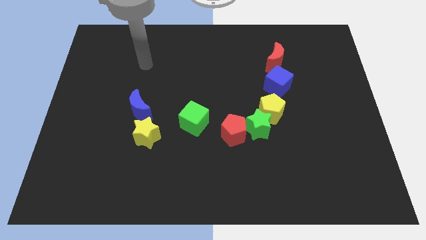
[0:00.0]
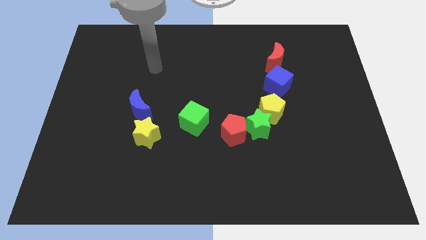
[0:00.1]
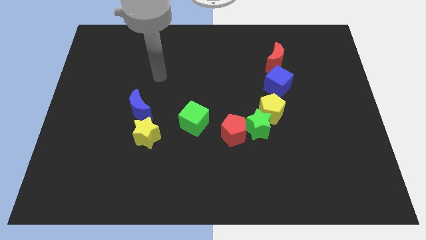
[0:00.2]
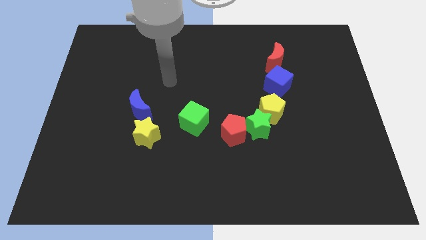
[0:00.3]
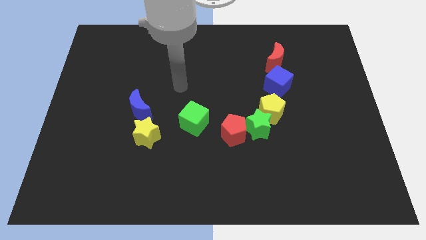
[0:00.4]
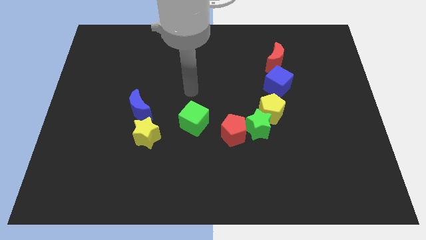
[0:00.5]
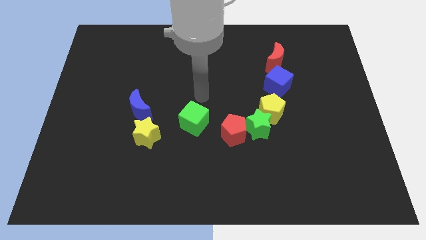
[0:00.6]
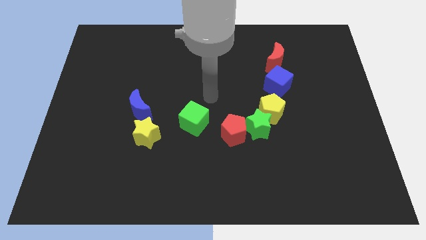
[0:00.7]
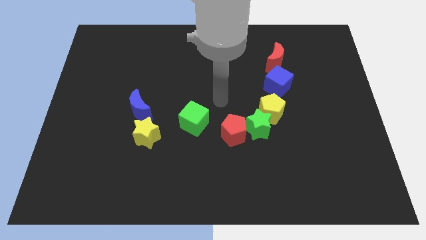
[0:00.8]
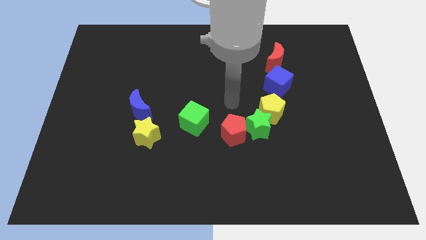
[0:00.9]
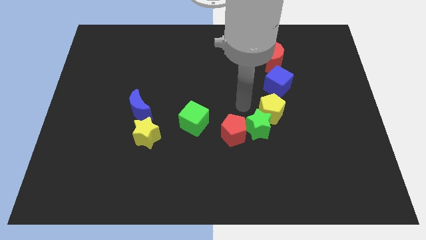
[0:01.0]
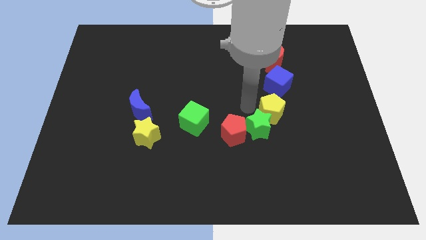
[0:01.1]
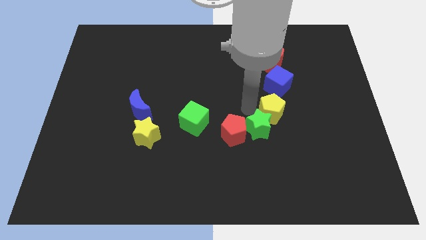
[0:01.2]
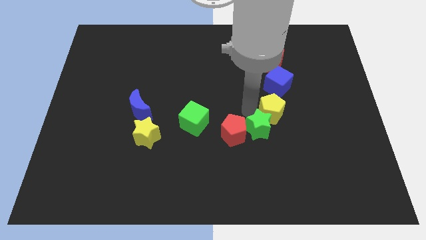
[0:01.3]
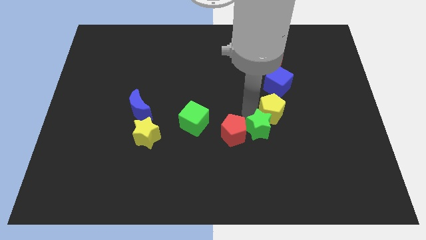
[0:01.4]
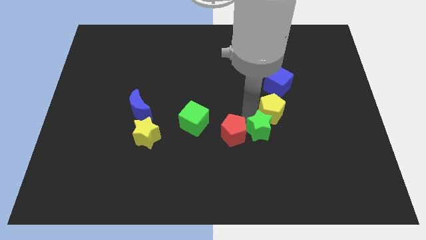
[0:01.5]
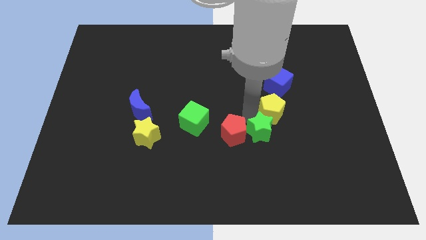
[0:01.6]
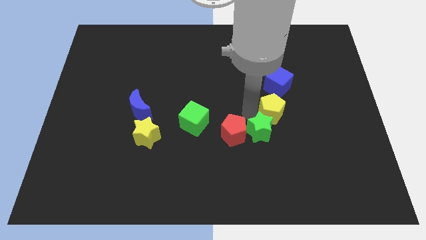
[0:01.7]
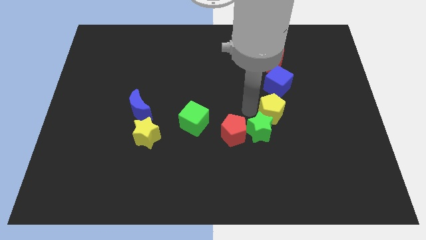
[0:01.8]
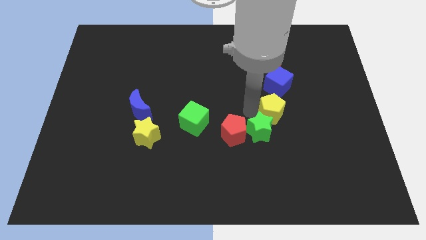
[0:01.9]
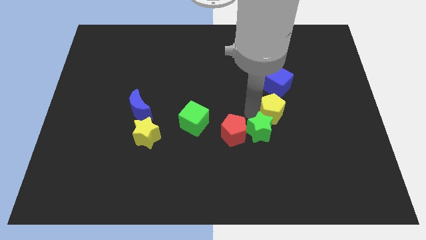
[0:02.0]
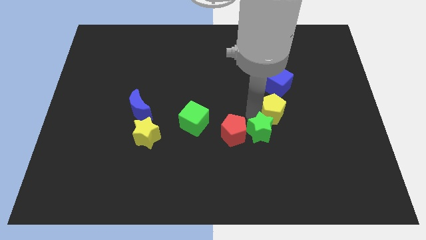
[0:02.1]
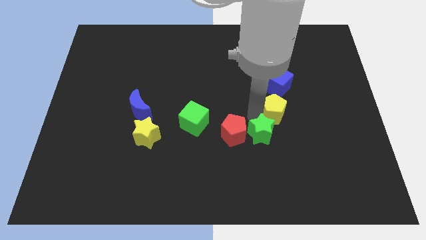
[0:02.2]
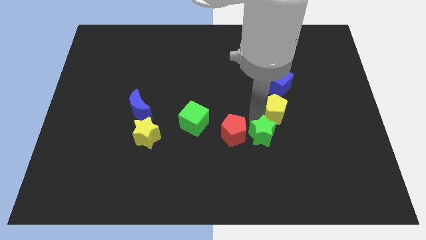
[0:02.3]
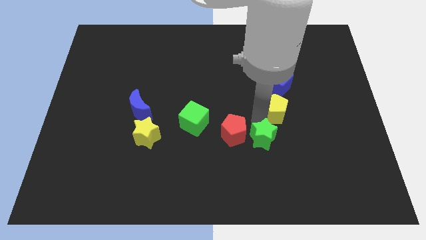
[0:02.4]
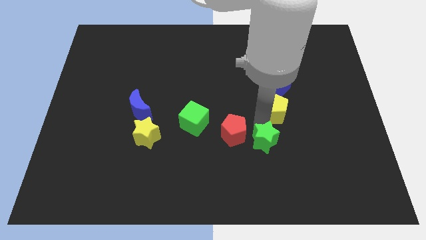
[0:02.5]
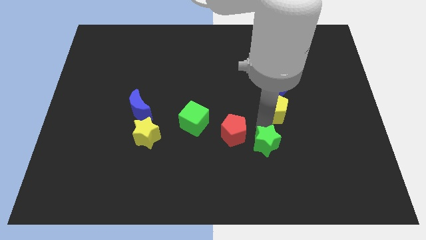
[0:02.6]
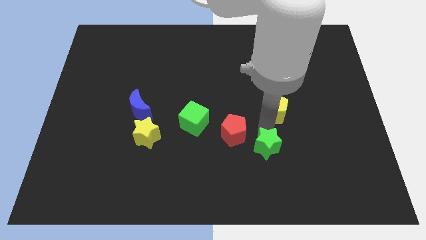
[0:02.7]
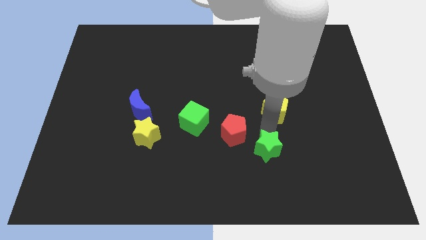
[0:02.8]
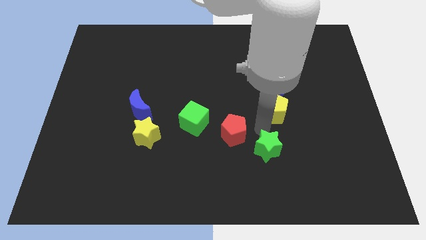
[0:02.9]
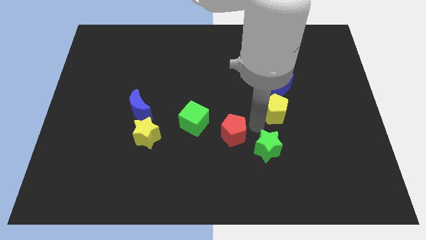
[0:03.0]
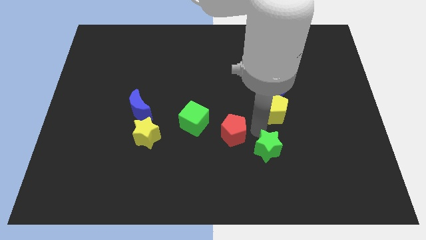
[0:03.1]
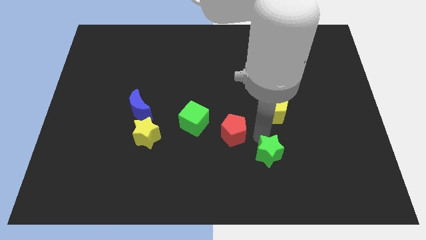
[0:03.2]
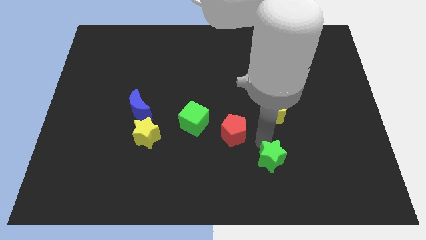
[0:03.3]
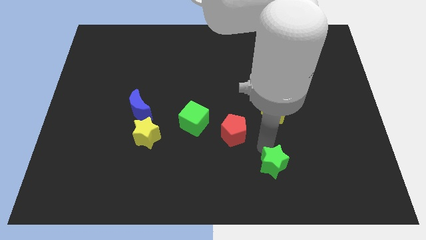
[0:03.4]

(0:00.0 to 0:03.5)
pull the green star apart from the red pentagon and yellow pentagon

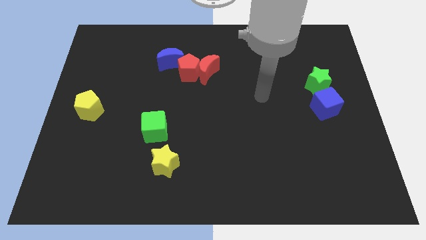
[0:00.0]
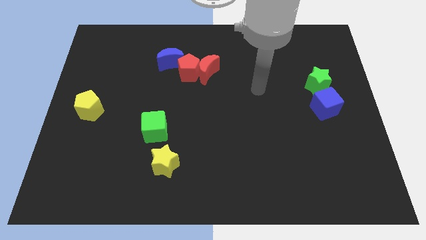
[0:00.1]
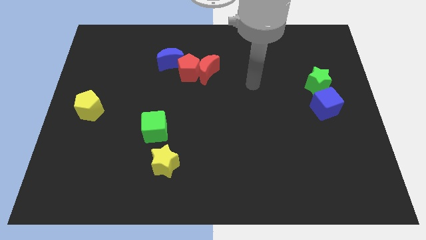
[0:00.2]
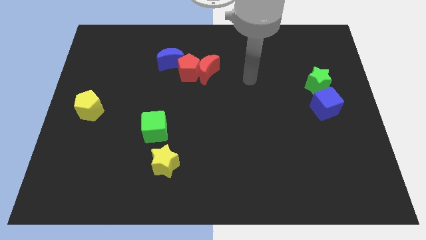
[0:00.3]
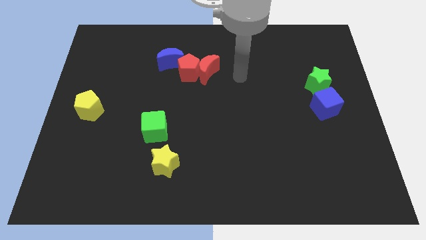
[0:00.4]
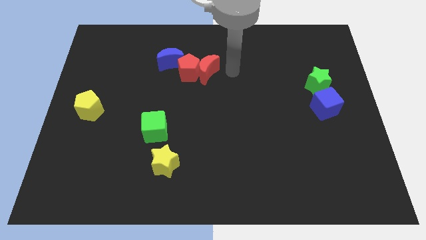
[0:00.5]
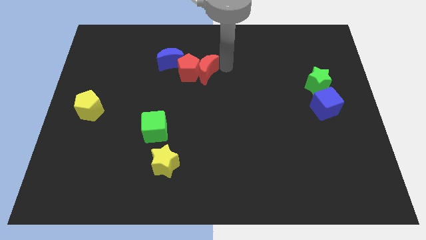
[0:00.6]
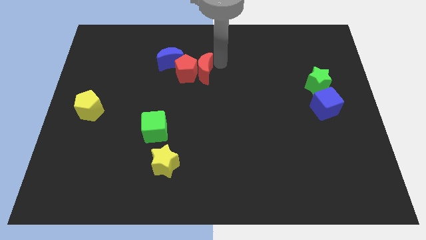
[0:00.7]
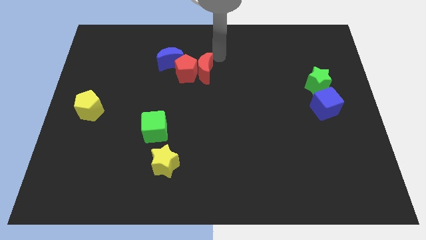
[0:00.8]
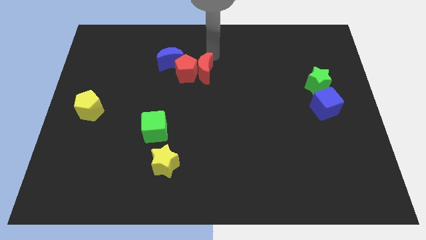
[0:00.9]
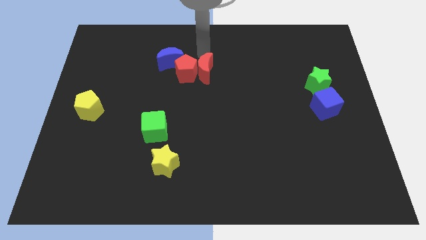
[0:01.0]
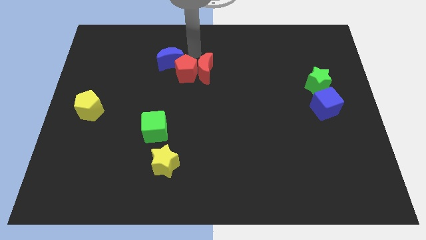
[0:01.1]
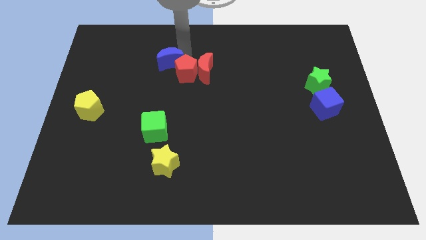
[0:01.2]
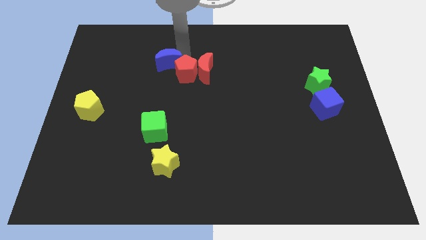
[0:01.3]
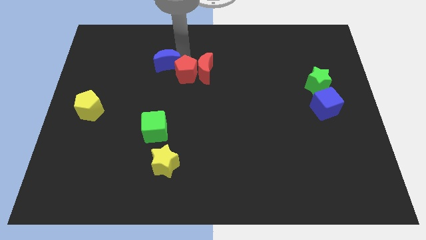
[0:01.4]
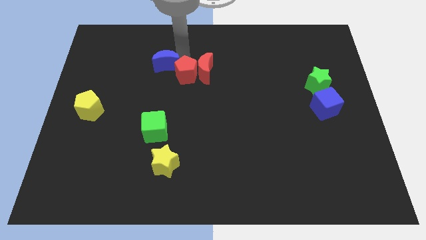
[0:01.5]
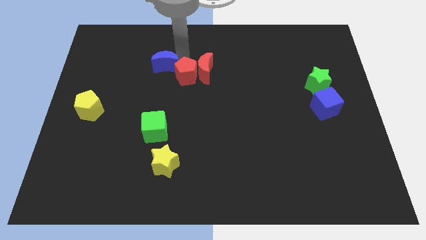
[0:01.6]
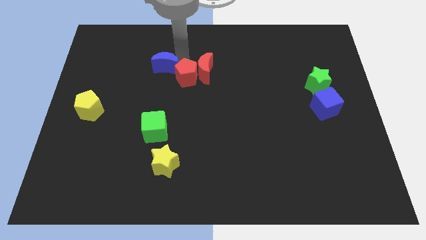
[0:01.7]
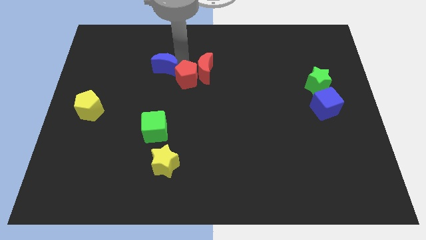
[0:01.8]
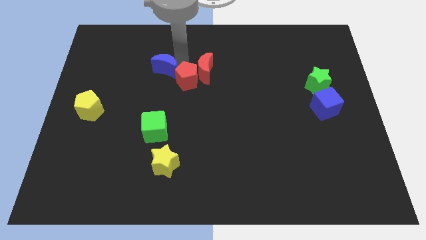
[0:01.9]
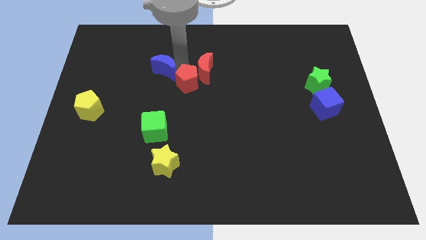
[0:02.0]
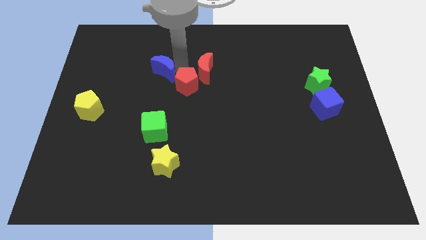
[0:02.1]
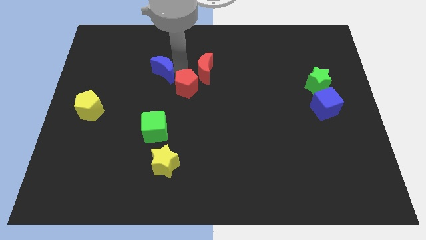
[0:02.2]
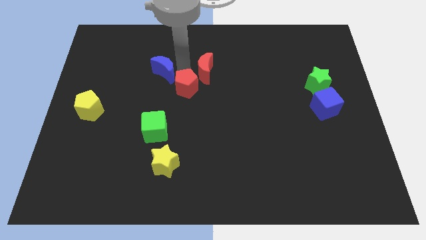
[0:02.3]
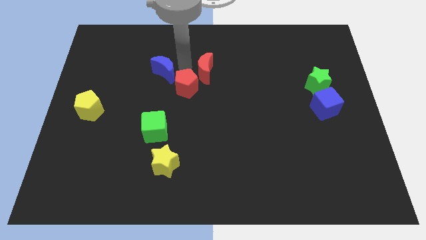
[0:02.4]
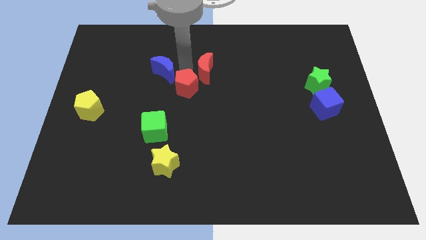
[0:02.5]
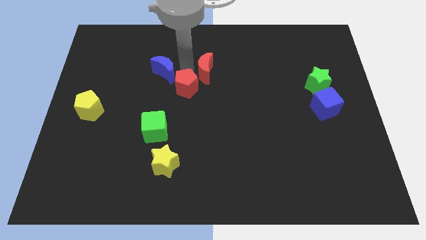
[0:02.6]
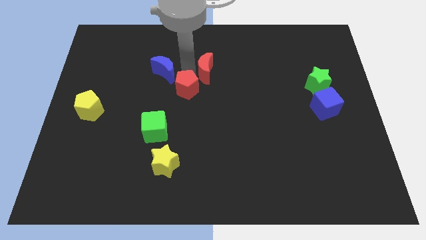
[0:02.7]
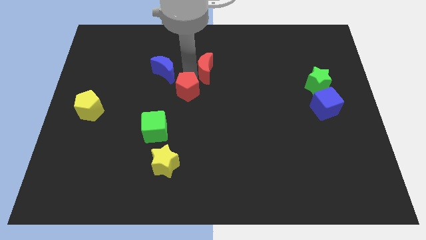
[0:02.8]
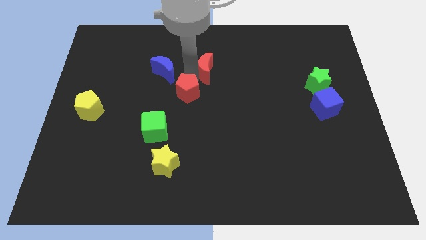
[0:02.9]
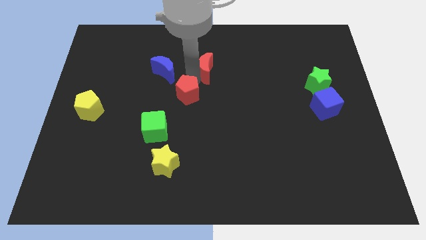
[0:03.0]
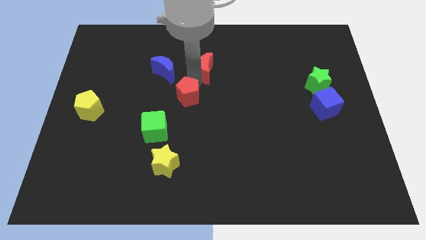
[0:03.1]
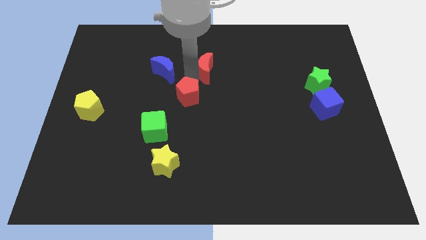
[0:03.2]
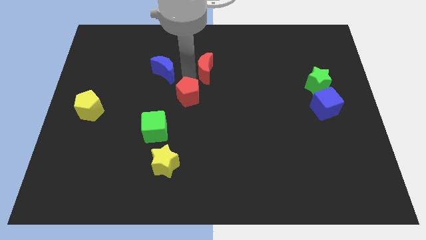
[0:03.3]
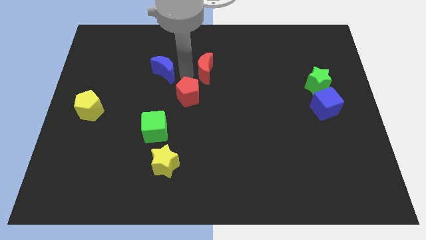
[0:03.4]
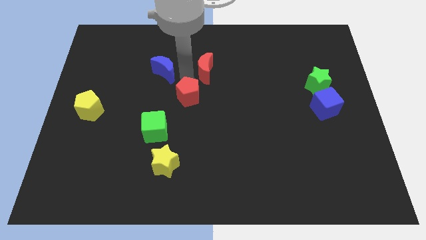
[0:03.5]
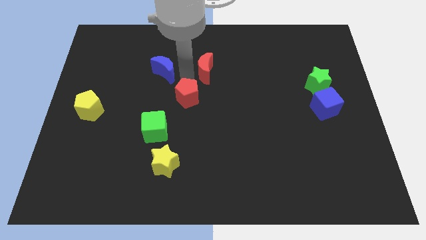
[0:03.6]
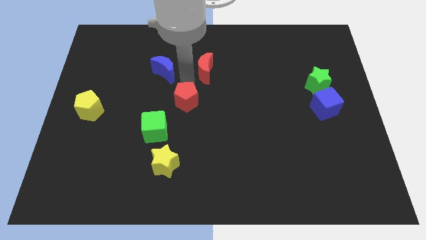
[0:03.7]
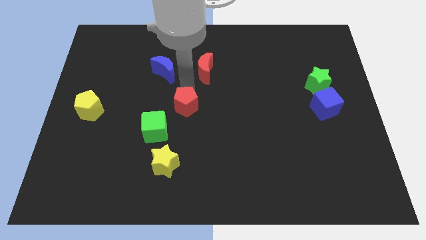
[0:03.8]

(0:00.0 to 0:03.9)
separate the red pentagon from the red moon and blue moon

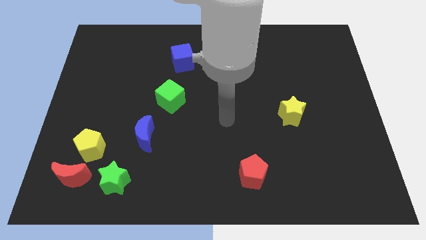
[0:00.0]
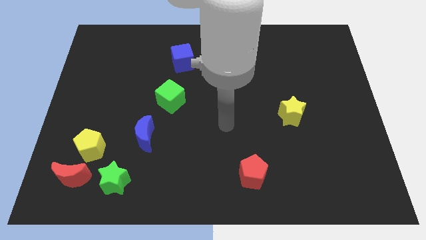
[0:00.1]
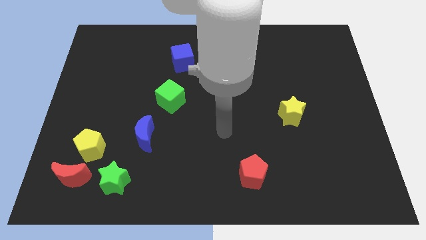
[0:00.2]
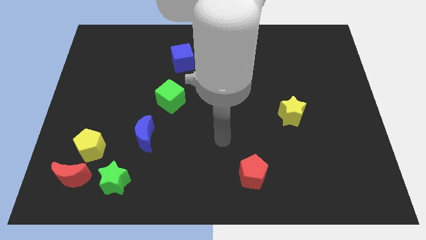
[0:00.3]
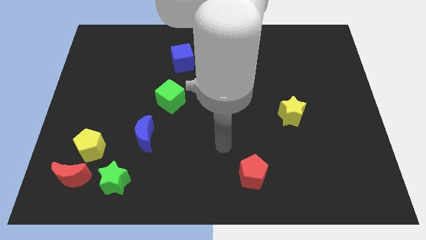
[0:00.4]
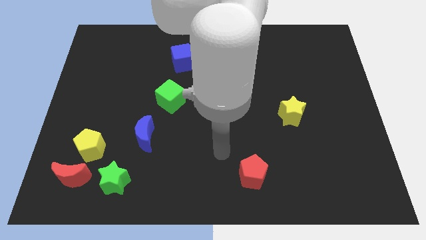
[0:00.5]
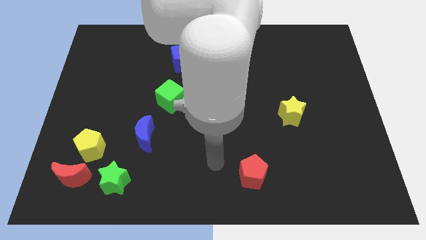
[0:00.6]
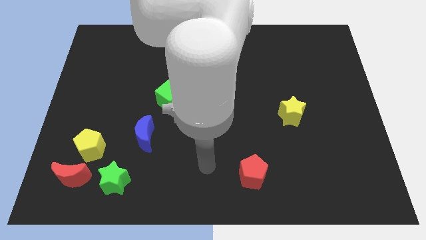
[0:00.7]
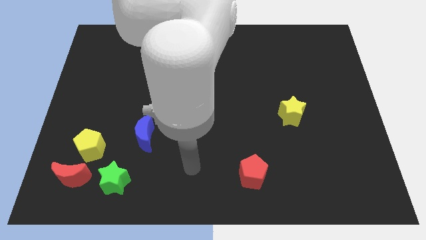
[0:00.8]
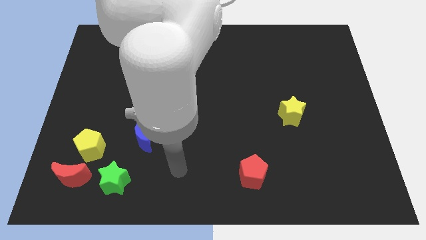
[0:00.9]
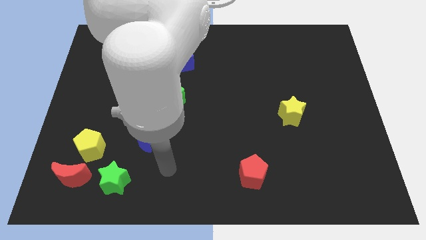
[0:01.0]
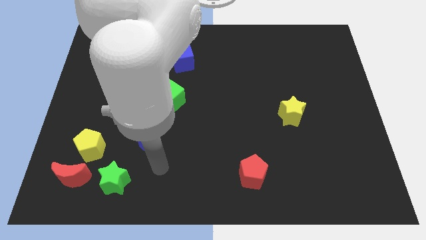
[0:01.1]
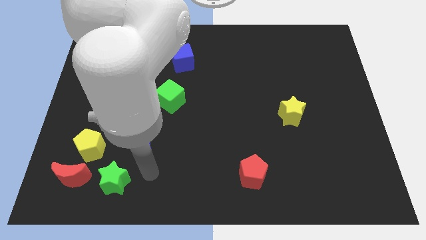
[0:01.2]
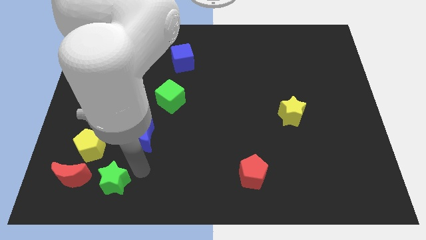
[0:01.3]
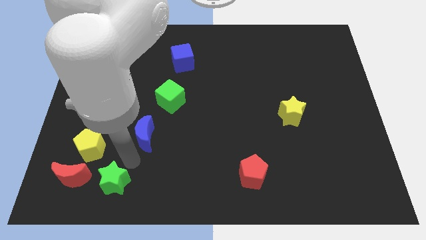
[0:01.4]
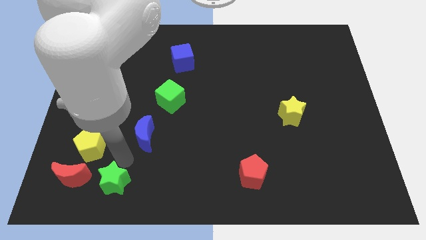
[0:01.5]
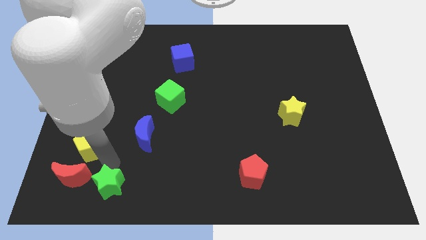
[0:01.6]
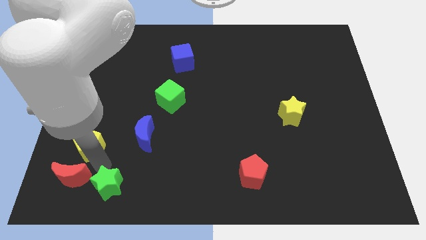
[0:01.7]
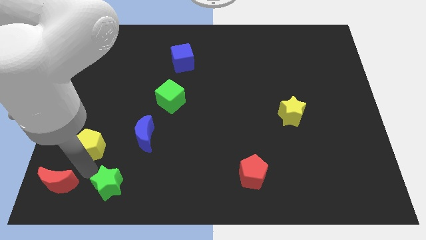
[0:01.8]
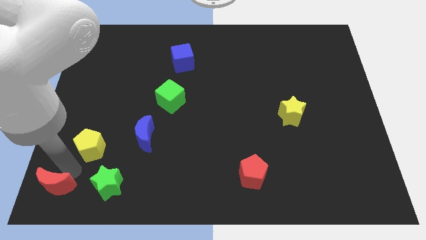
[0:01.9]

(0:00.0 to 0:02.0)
separate the yellow pentagon from the red moon

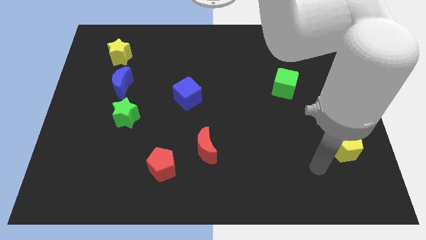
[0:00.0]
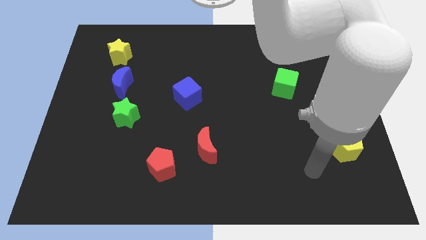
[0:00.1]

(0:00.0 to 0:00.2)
pull the red moon apart from the red pentagon
